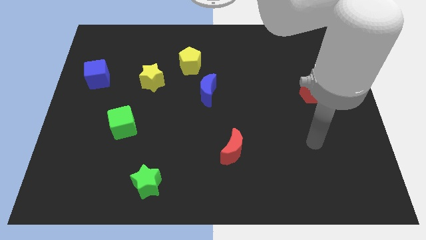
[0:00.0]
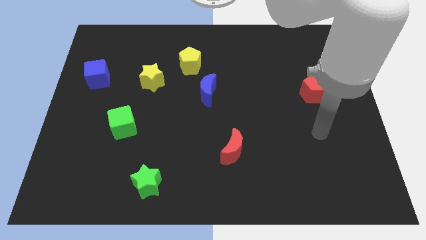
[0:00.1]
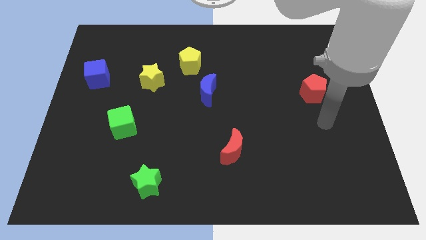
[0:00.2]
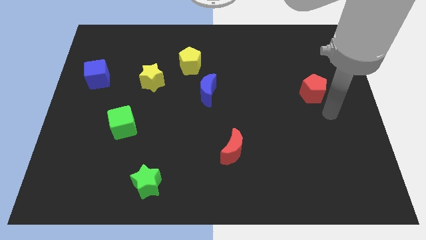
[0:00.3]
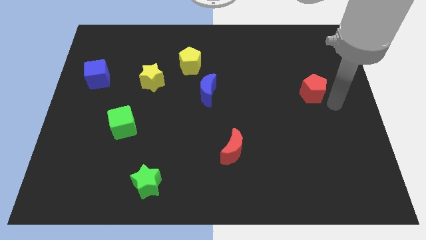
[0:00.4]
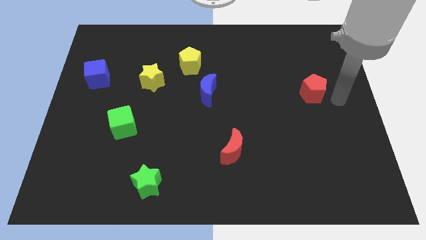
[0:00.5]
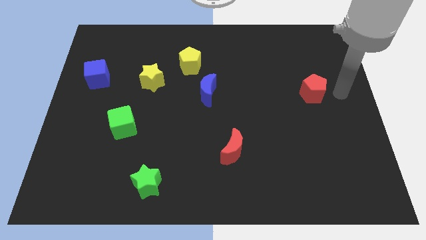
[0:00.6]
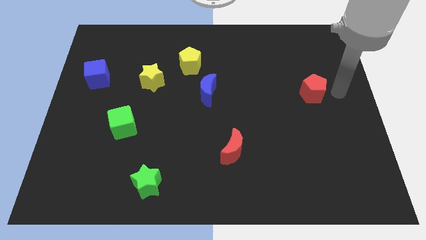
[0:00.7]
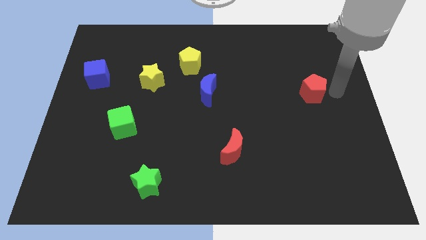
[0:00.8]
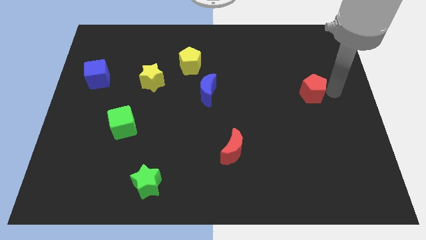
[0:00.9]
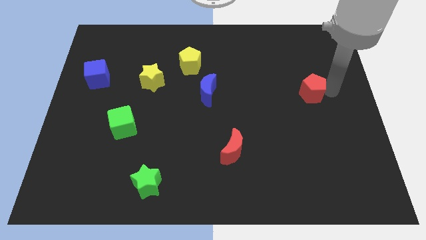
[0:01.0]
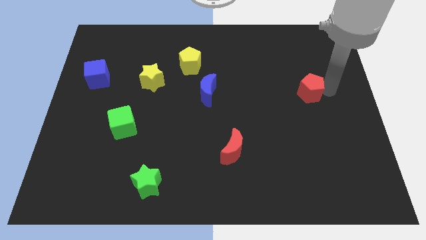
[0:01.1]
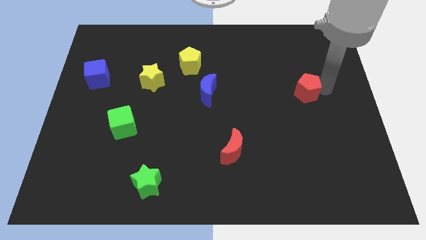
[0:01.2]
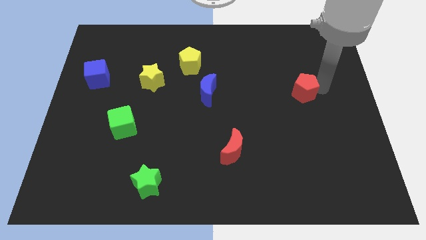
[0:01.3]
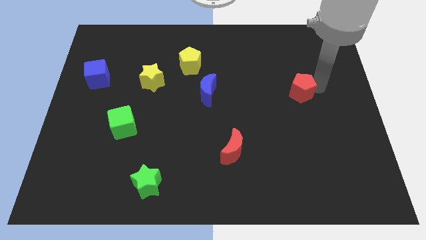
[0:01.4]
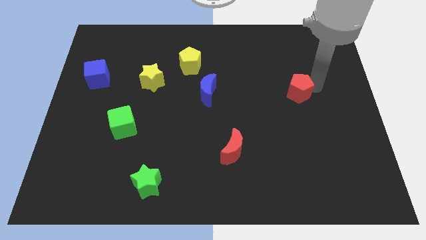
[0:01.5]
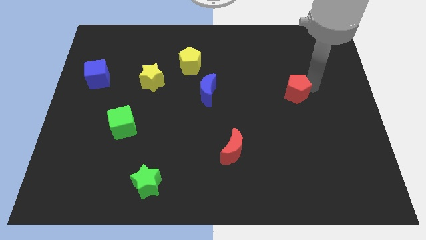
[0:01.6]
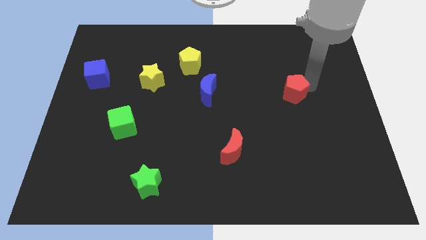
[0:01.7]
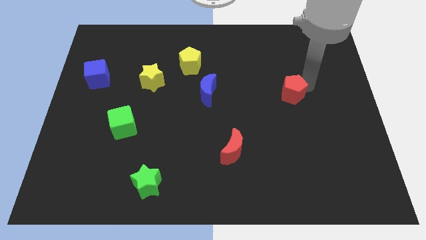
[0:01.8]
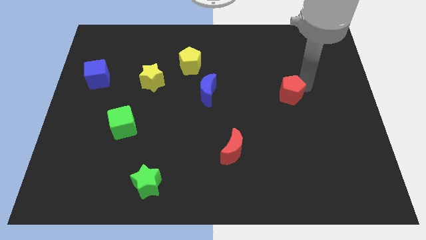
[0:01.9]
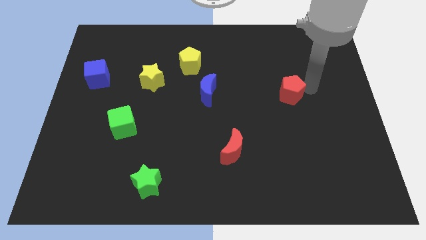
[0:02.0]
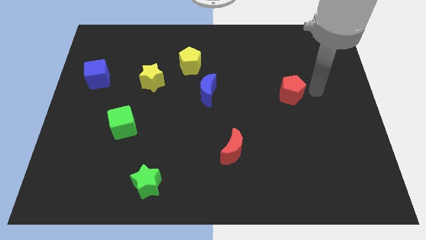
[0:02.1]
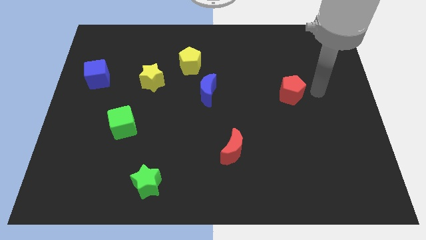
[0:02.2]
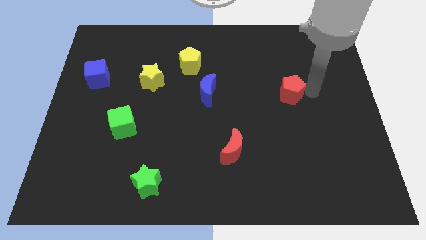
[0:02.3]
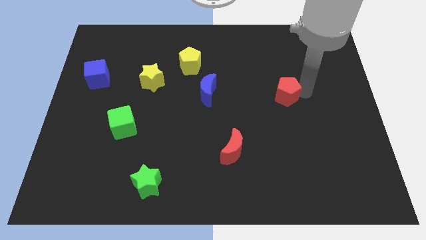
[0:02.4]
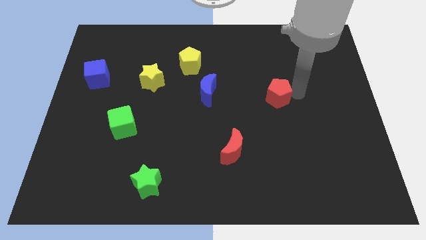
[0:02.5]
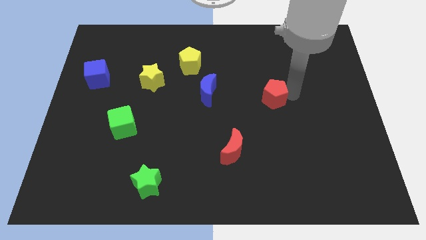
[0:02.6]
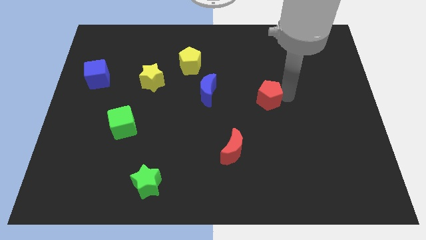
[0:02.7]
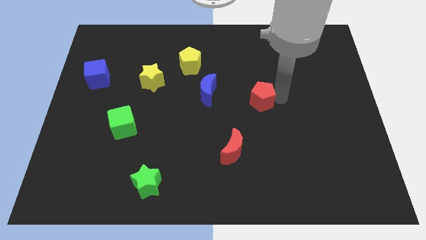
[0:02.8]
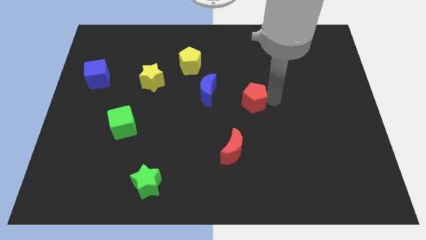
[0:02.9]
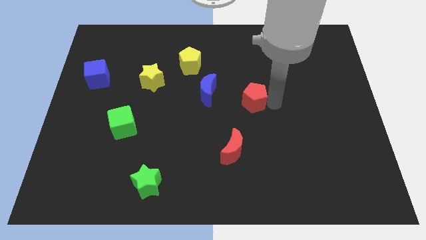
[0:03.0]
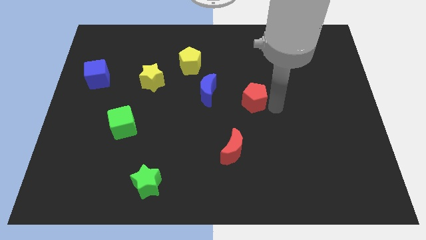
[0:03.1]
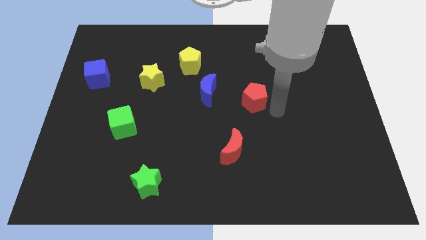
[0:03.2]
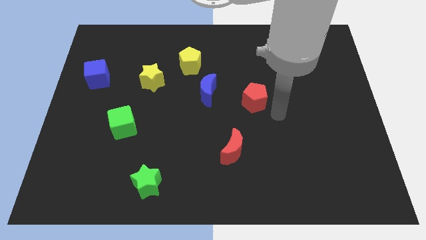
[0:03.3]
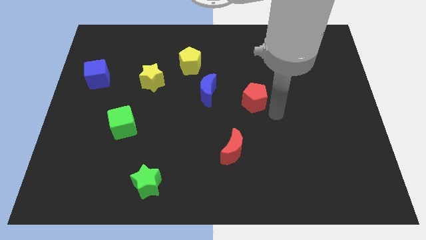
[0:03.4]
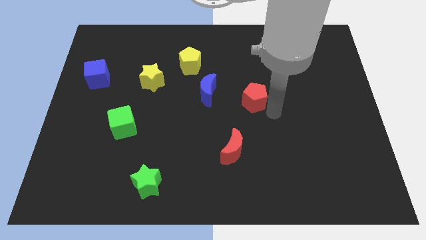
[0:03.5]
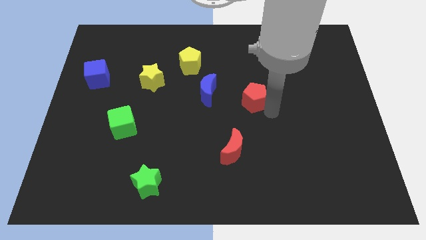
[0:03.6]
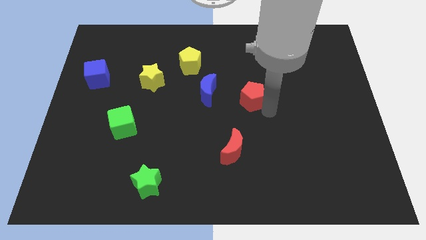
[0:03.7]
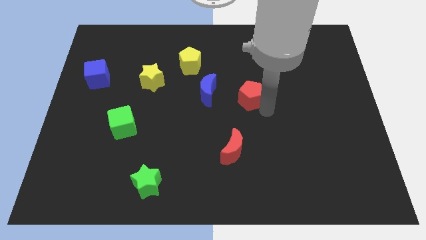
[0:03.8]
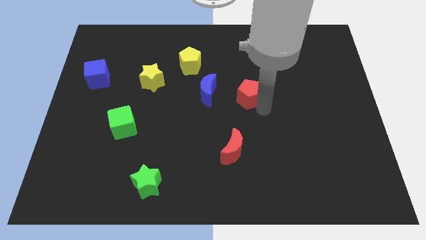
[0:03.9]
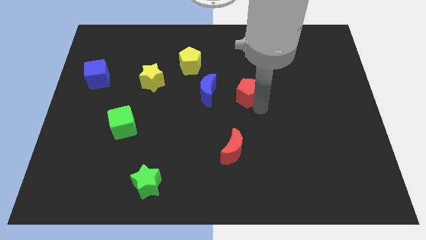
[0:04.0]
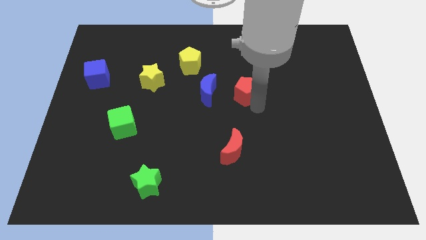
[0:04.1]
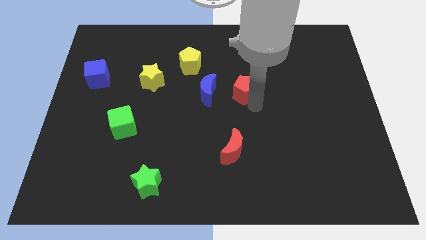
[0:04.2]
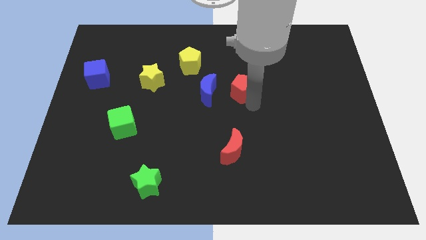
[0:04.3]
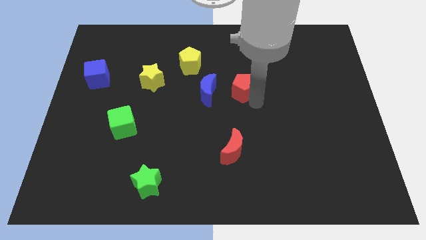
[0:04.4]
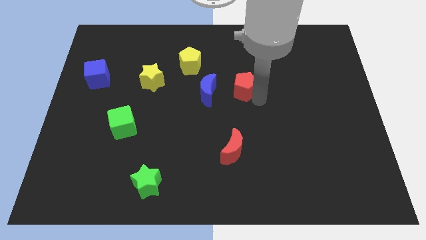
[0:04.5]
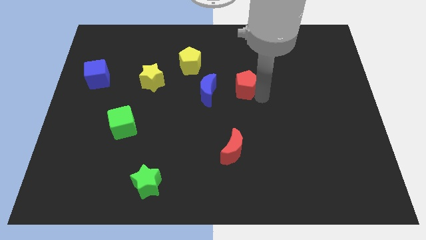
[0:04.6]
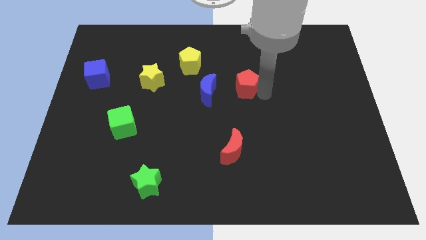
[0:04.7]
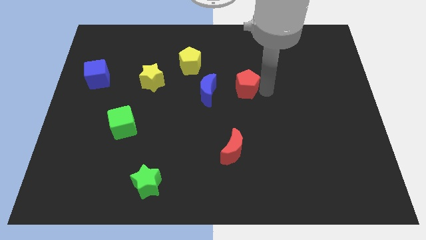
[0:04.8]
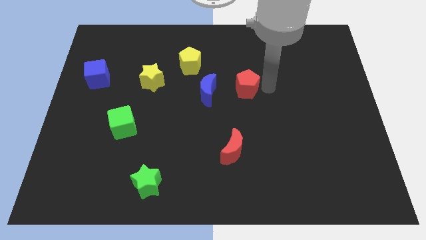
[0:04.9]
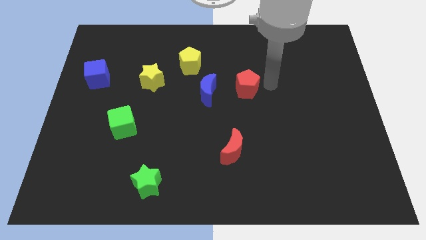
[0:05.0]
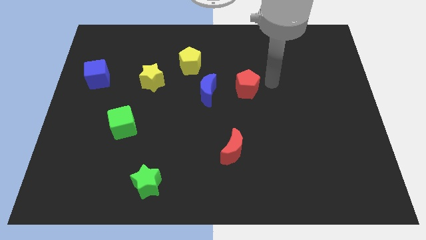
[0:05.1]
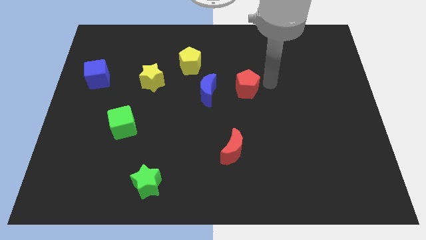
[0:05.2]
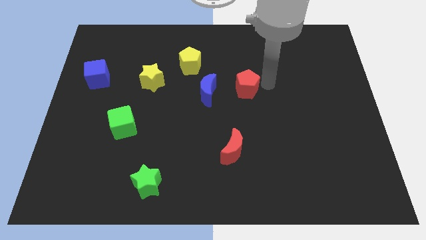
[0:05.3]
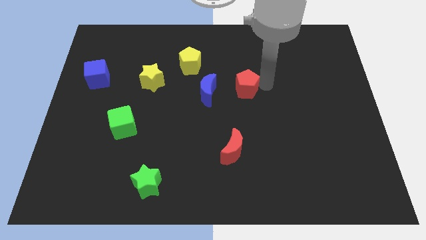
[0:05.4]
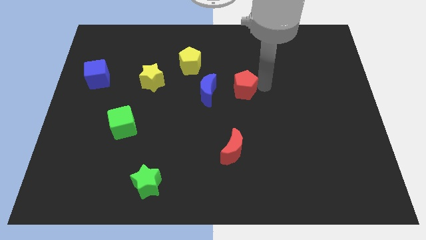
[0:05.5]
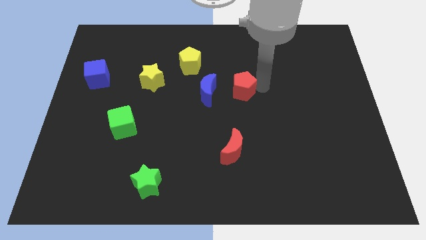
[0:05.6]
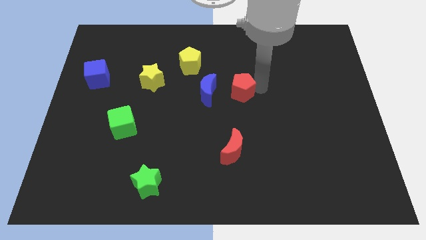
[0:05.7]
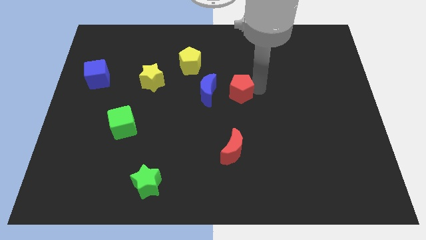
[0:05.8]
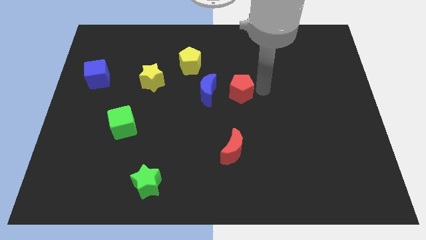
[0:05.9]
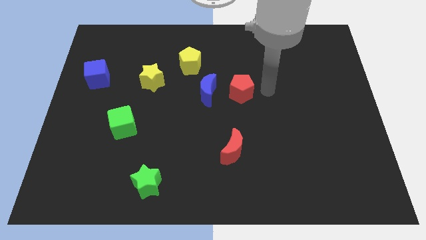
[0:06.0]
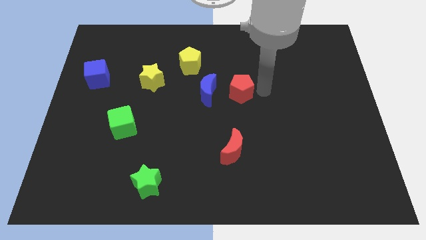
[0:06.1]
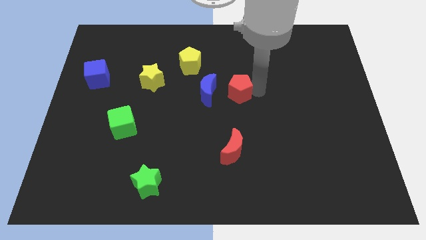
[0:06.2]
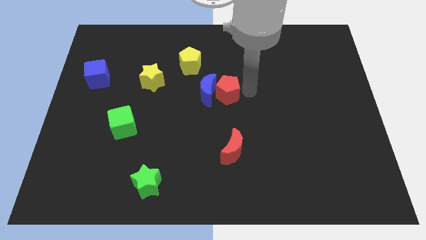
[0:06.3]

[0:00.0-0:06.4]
put the red pentagon to the blue moon

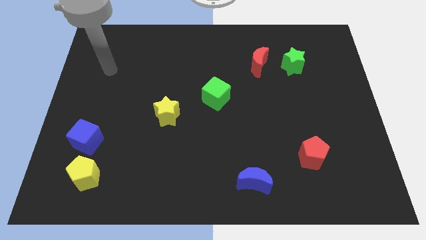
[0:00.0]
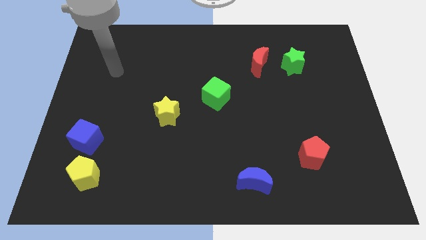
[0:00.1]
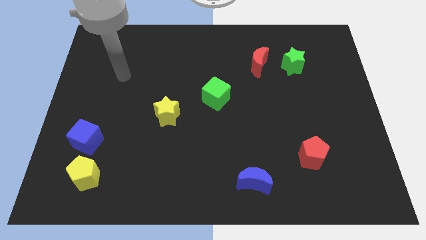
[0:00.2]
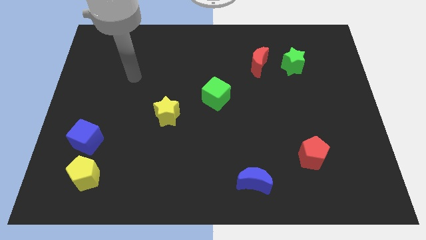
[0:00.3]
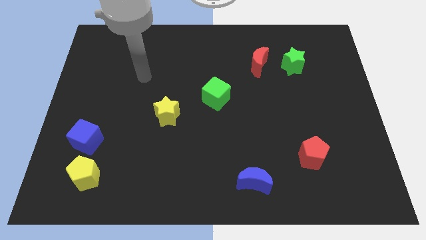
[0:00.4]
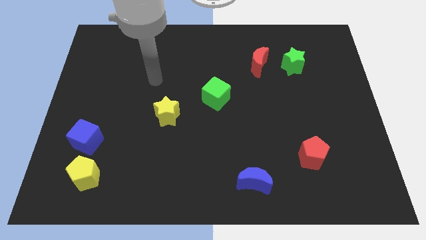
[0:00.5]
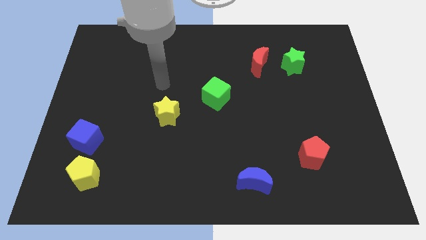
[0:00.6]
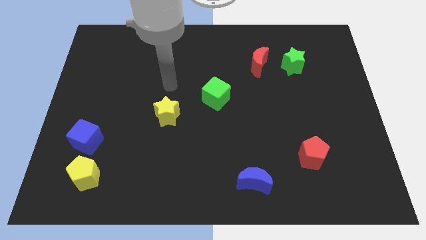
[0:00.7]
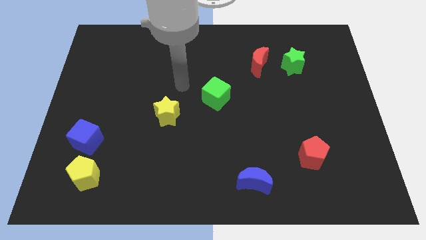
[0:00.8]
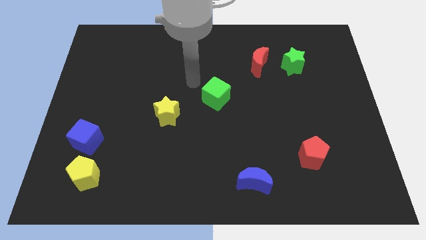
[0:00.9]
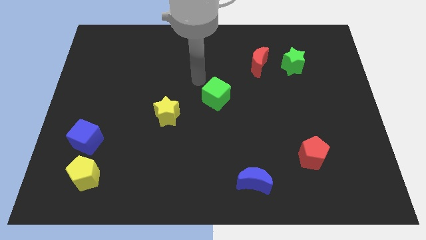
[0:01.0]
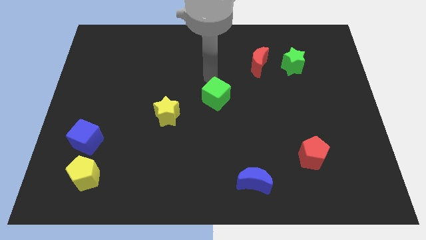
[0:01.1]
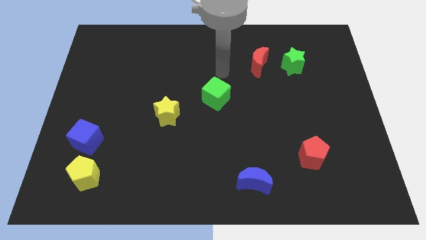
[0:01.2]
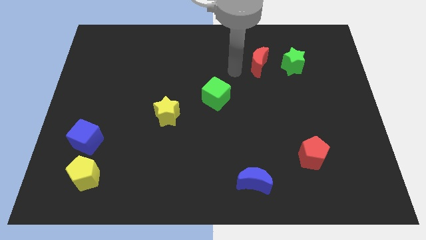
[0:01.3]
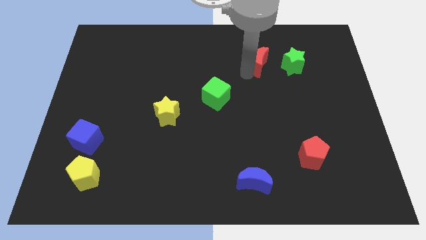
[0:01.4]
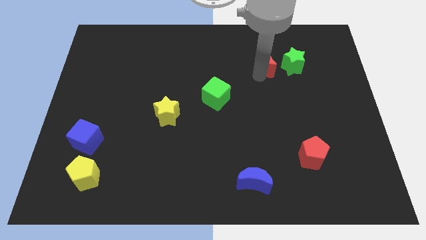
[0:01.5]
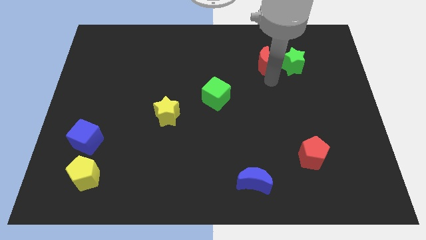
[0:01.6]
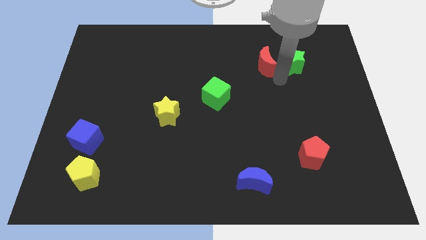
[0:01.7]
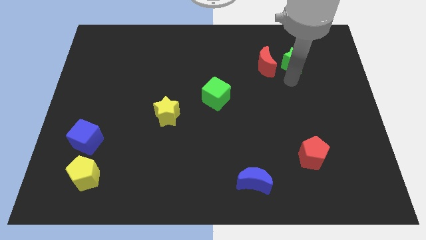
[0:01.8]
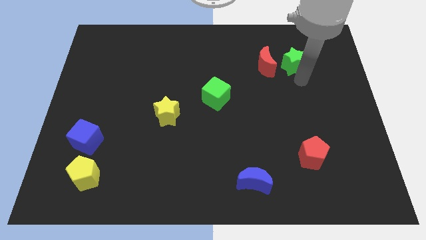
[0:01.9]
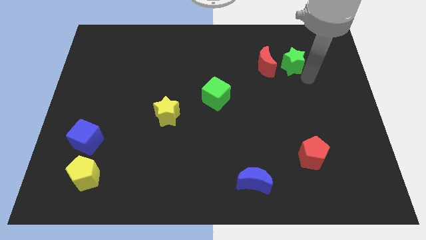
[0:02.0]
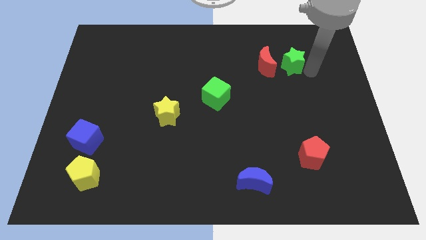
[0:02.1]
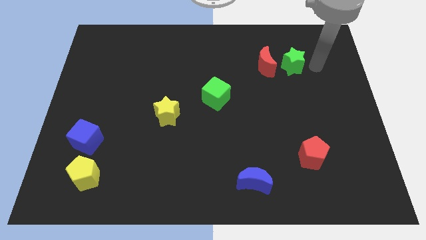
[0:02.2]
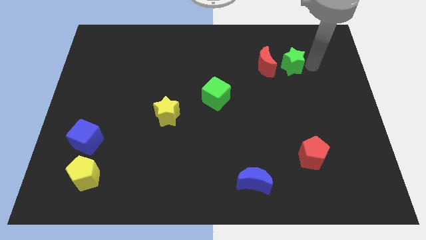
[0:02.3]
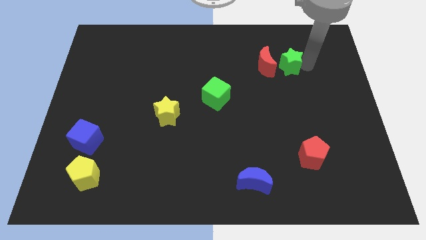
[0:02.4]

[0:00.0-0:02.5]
slide the green star close to the red moon
